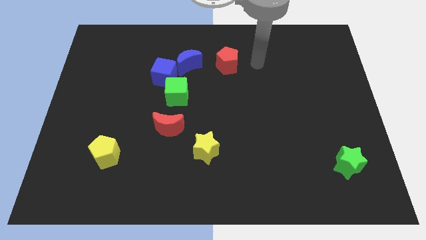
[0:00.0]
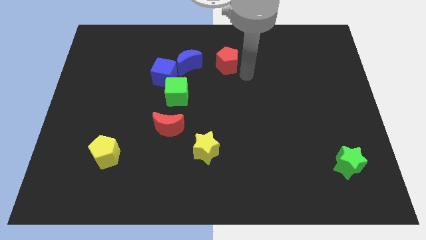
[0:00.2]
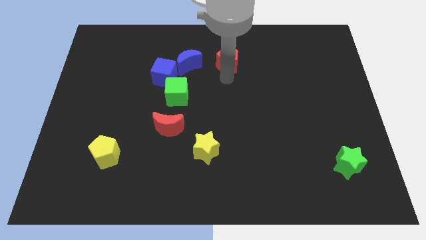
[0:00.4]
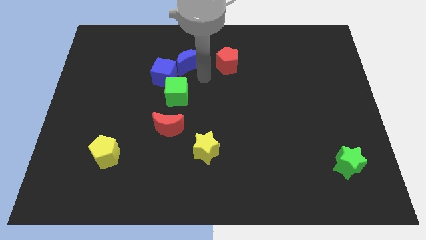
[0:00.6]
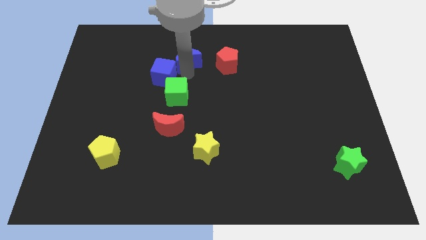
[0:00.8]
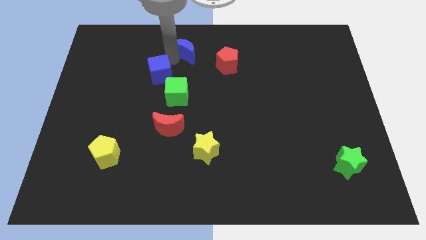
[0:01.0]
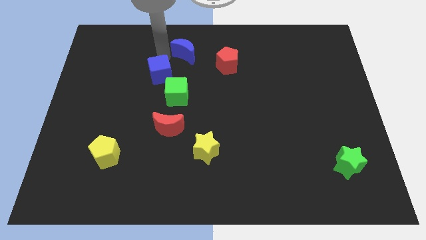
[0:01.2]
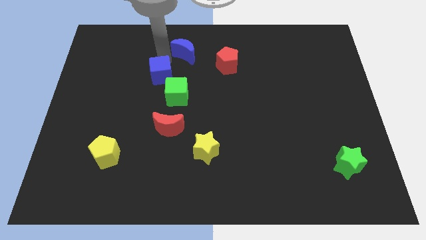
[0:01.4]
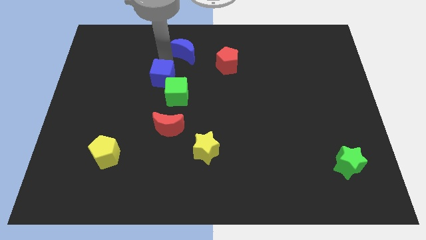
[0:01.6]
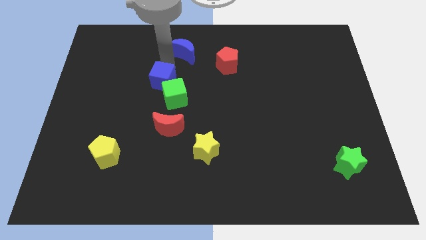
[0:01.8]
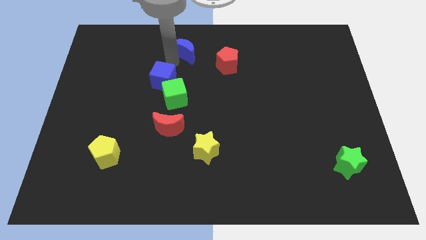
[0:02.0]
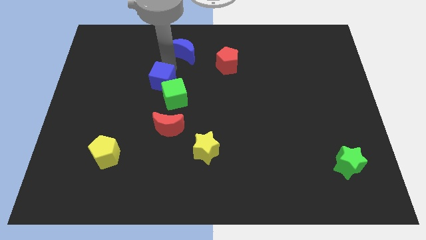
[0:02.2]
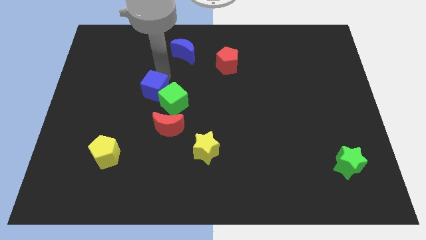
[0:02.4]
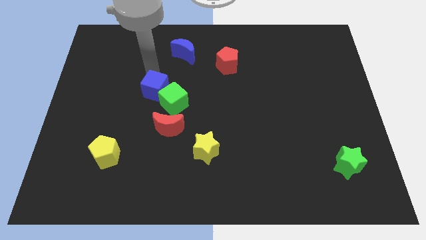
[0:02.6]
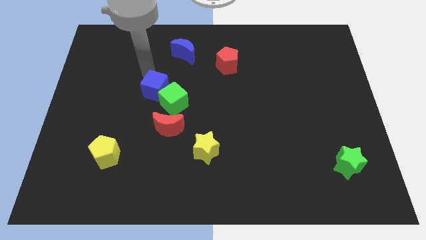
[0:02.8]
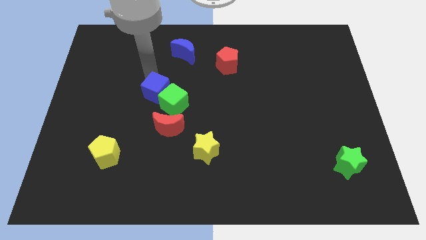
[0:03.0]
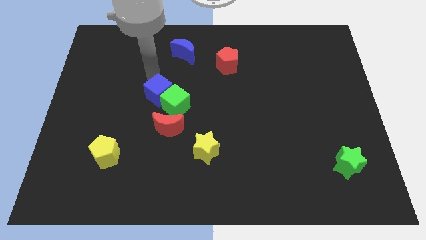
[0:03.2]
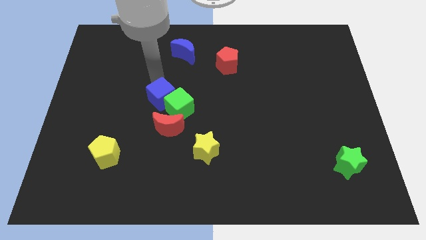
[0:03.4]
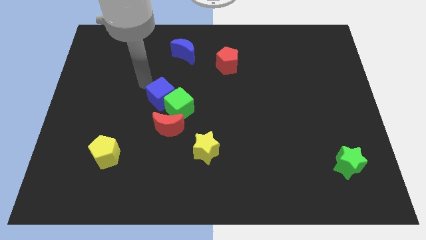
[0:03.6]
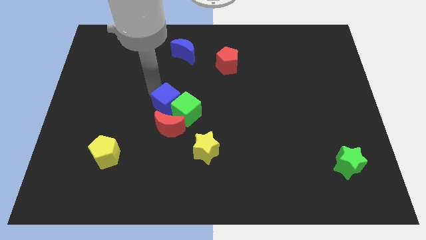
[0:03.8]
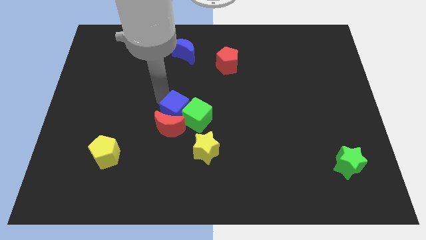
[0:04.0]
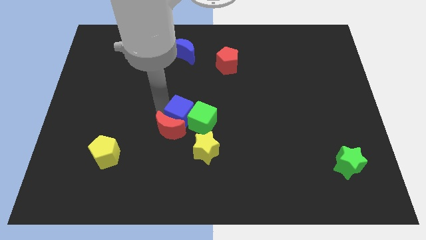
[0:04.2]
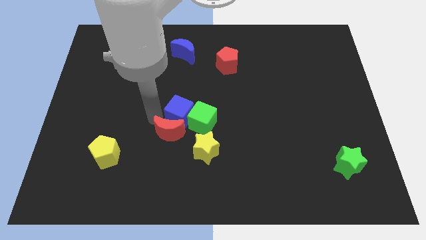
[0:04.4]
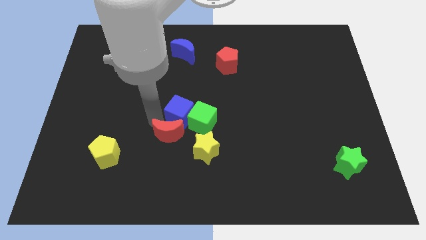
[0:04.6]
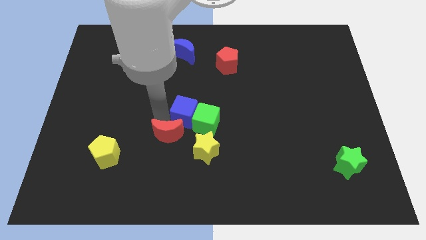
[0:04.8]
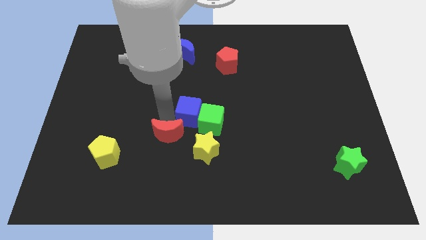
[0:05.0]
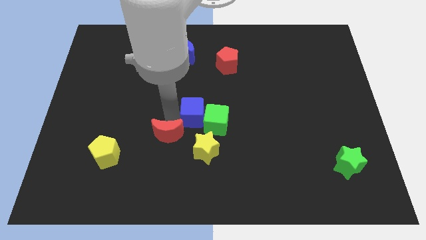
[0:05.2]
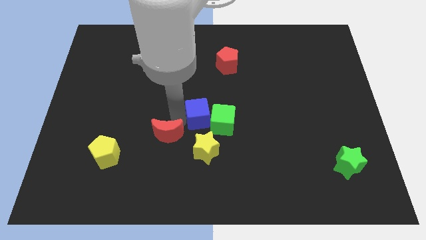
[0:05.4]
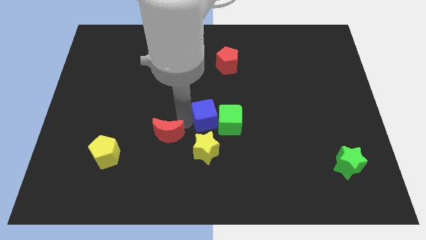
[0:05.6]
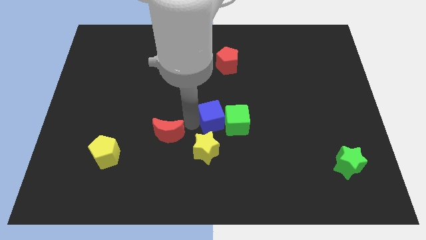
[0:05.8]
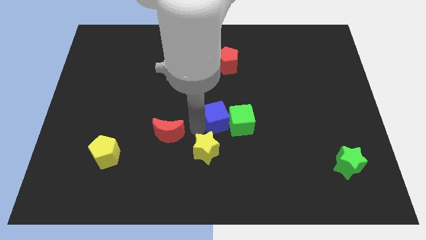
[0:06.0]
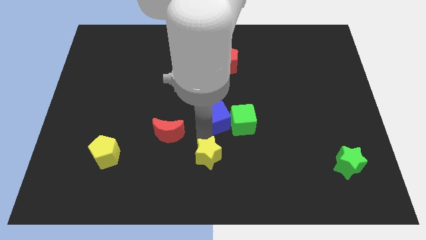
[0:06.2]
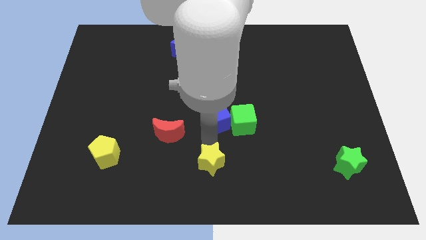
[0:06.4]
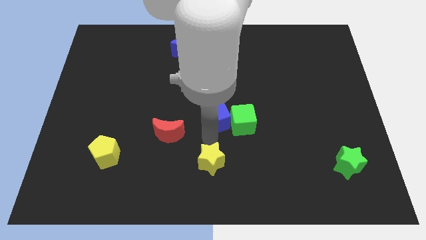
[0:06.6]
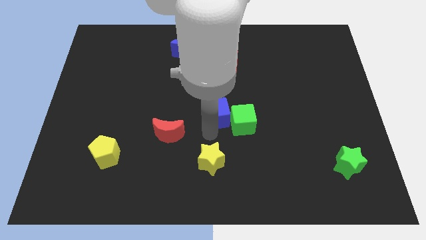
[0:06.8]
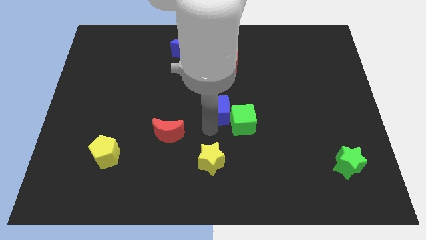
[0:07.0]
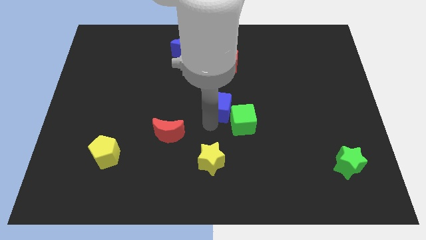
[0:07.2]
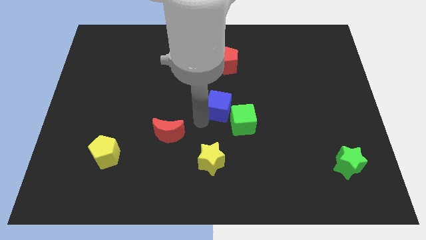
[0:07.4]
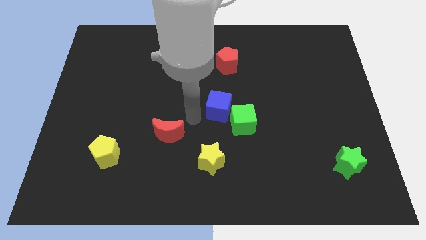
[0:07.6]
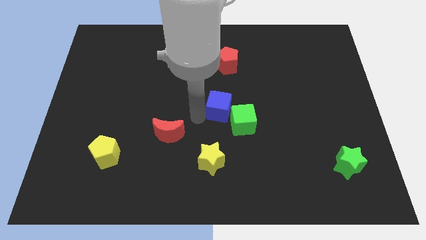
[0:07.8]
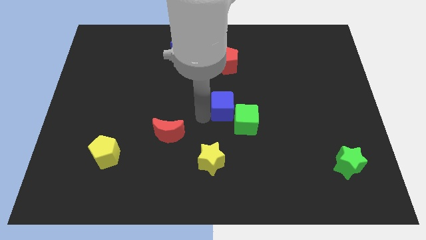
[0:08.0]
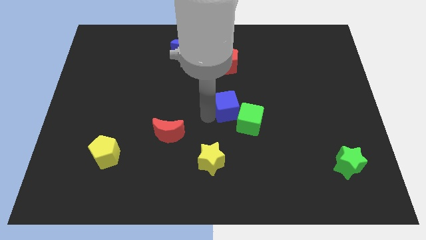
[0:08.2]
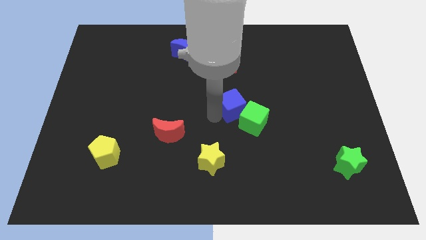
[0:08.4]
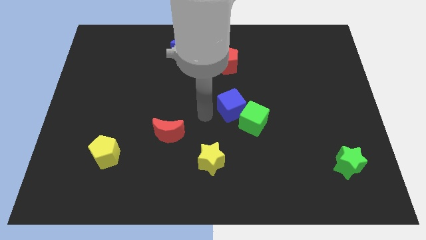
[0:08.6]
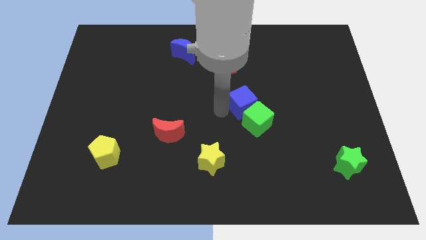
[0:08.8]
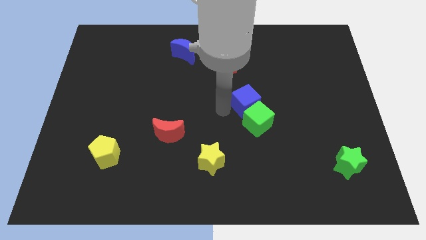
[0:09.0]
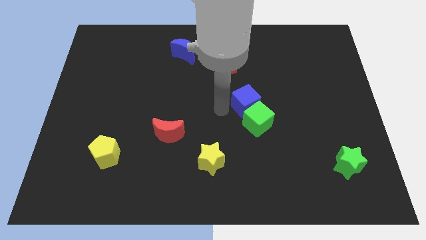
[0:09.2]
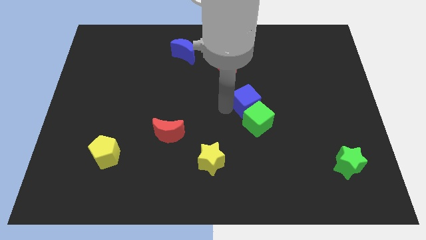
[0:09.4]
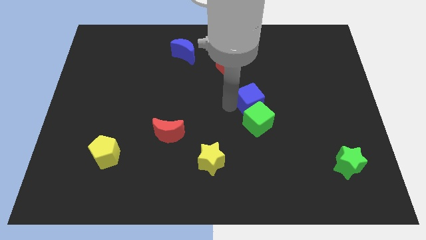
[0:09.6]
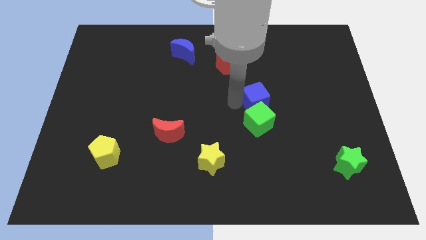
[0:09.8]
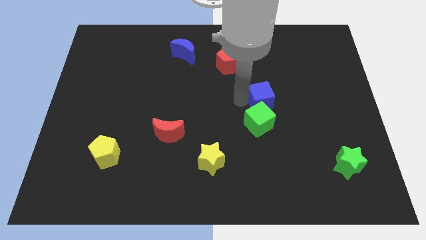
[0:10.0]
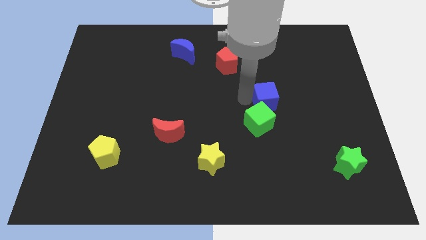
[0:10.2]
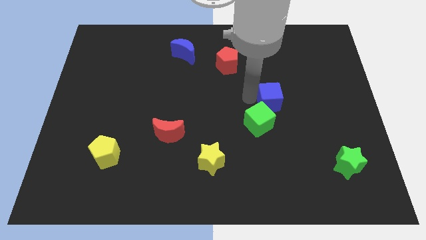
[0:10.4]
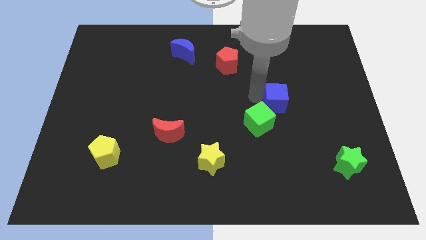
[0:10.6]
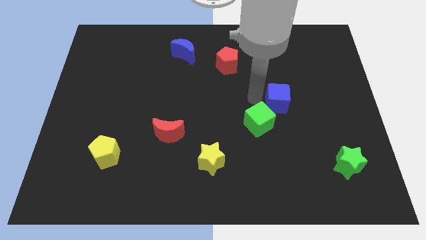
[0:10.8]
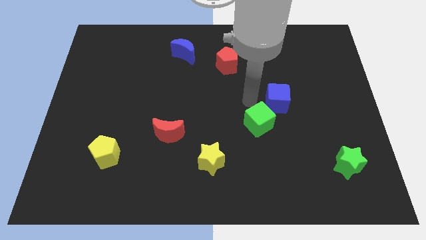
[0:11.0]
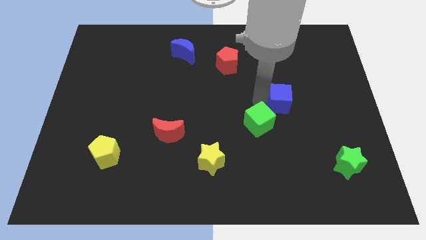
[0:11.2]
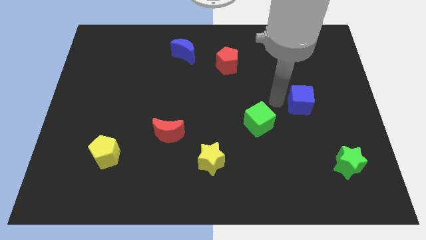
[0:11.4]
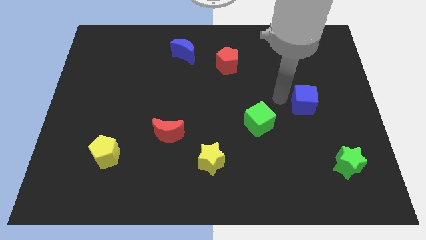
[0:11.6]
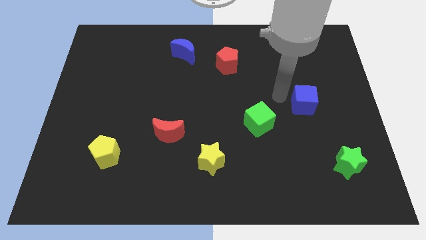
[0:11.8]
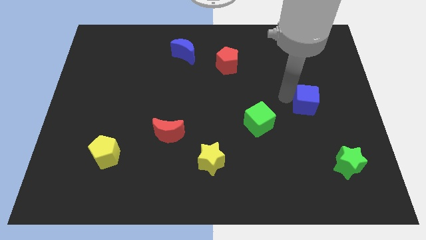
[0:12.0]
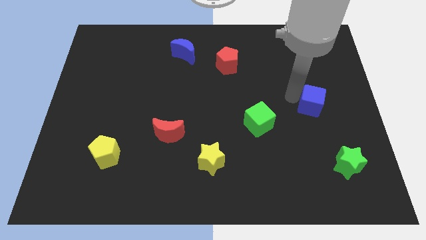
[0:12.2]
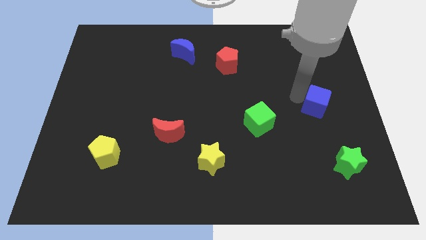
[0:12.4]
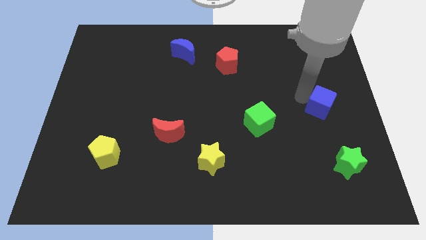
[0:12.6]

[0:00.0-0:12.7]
slide the blue cube to the center right

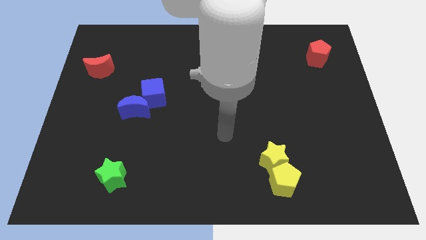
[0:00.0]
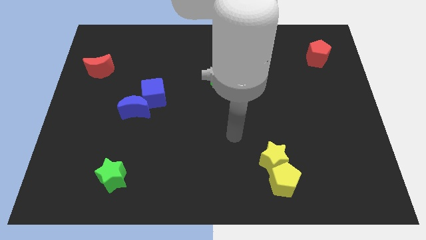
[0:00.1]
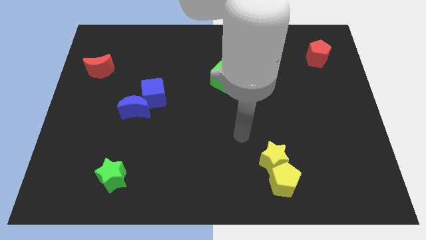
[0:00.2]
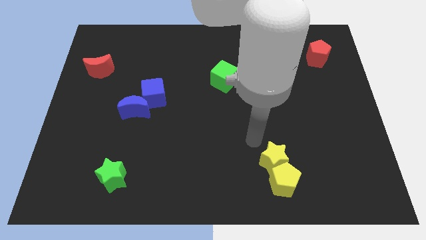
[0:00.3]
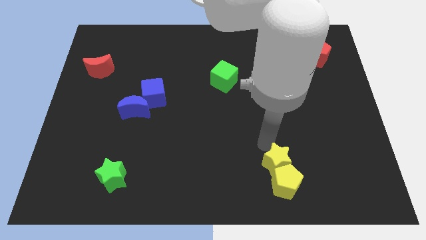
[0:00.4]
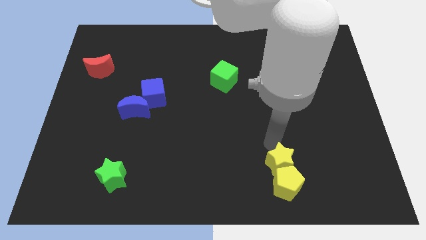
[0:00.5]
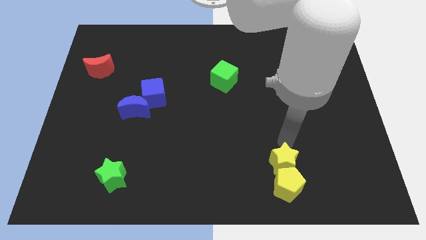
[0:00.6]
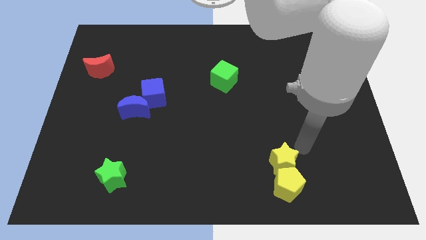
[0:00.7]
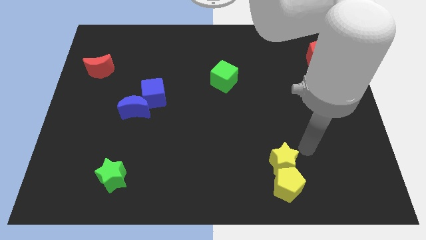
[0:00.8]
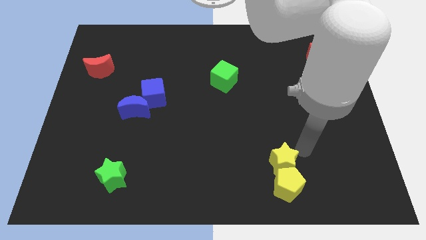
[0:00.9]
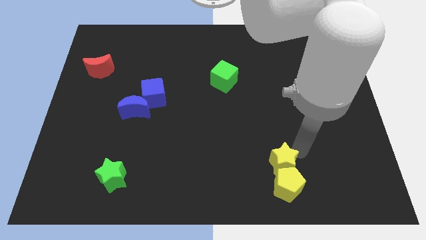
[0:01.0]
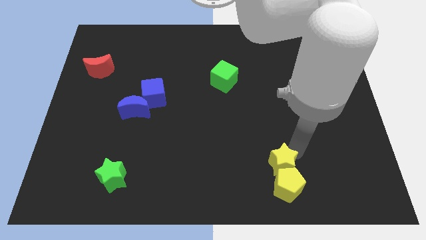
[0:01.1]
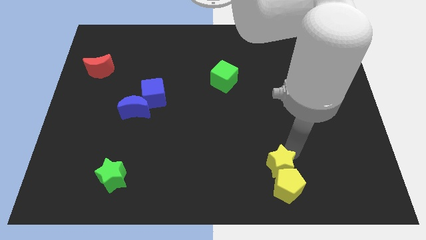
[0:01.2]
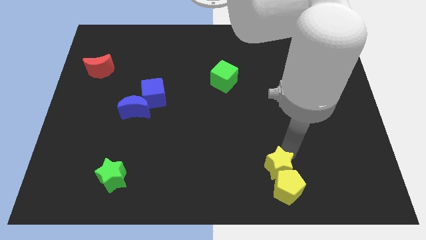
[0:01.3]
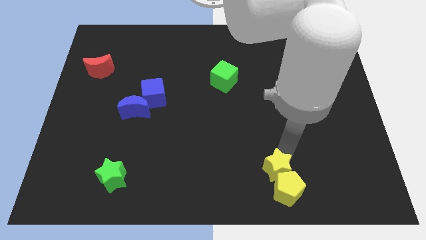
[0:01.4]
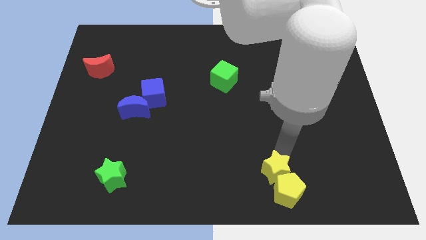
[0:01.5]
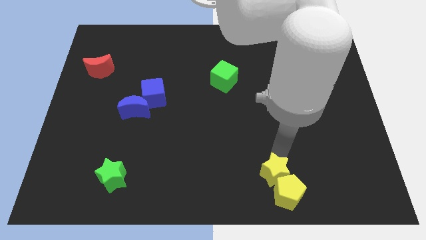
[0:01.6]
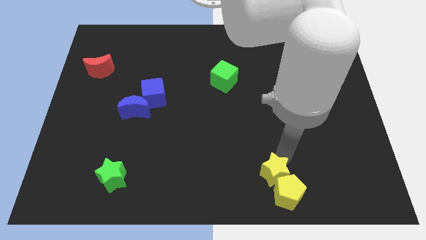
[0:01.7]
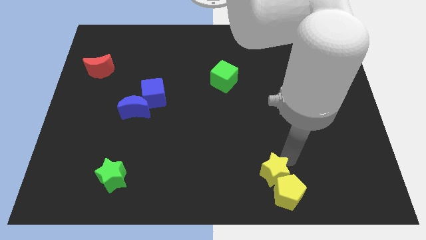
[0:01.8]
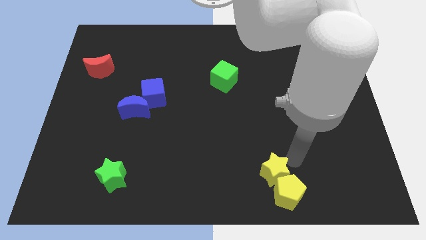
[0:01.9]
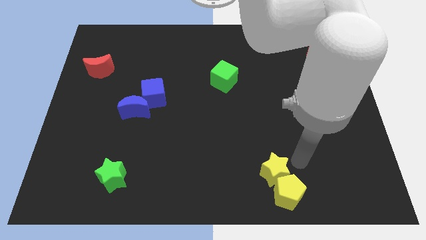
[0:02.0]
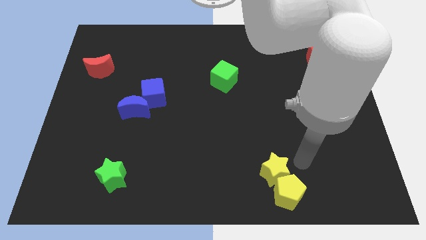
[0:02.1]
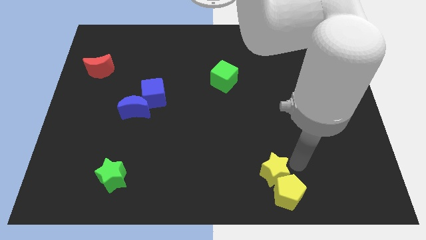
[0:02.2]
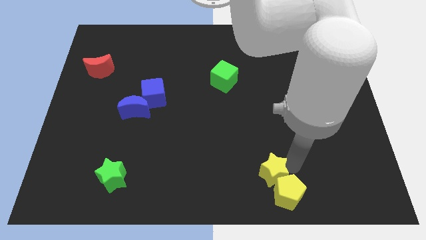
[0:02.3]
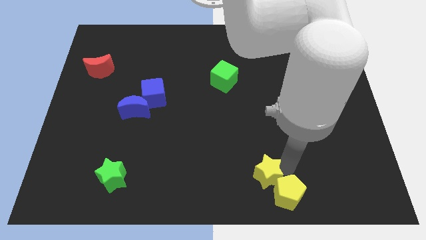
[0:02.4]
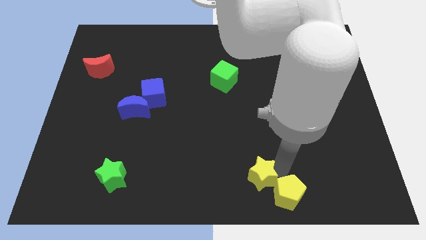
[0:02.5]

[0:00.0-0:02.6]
push the yellow star to the bottom
